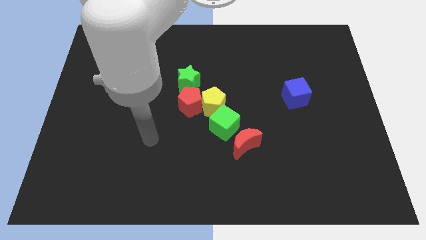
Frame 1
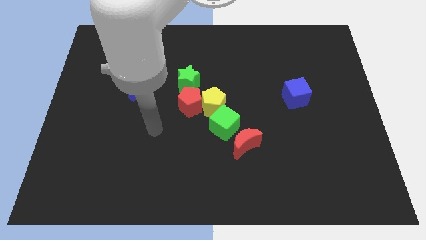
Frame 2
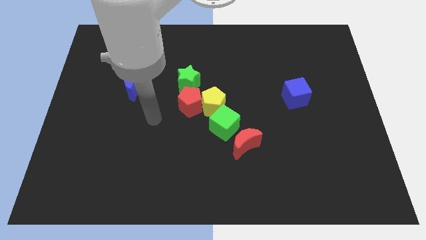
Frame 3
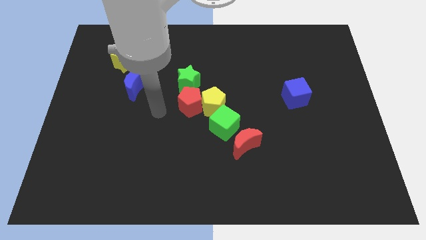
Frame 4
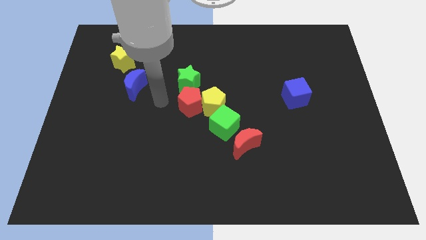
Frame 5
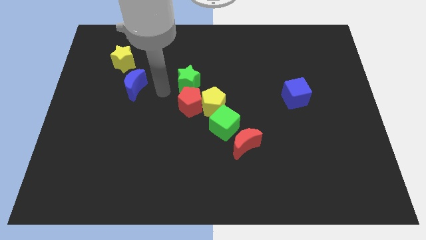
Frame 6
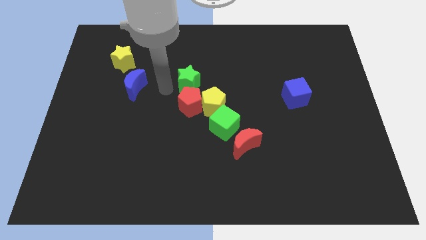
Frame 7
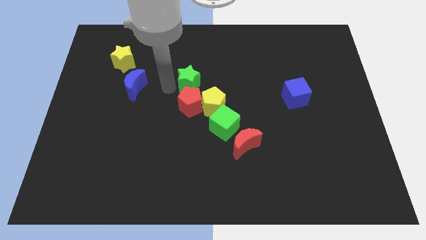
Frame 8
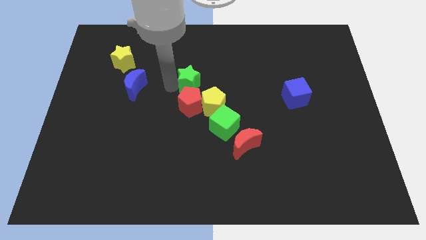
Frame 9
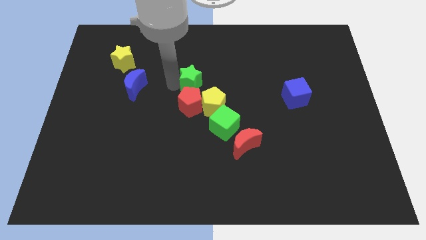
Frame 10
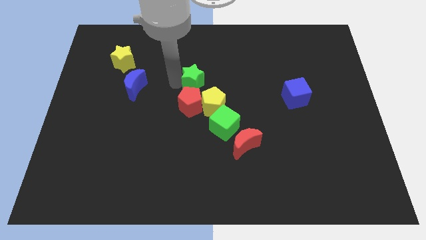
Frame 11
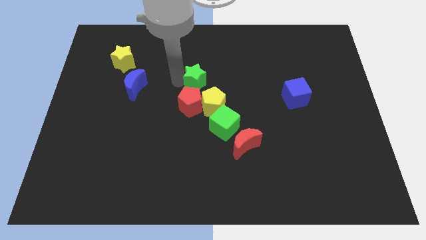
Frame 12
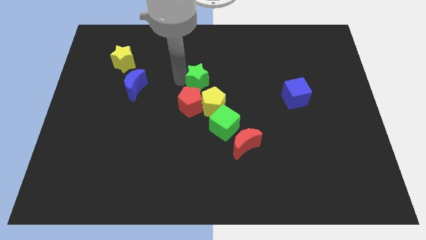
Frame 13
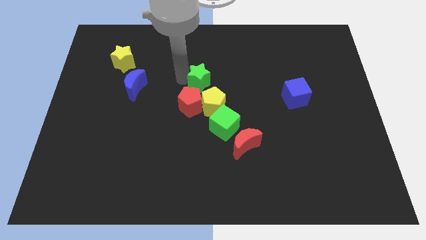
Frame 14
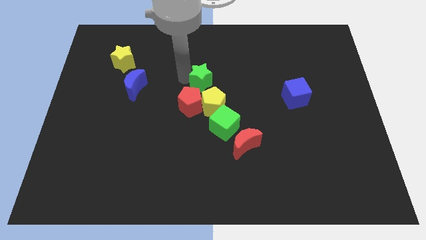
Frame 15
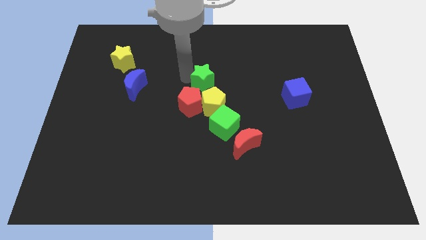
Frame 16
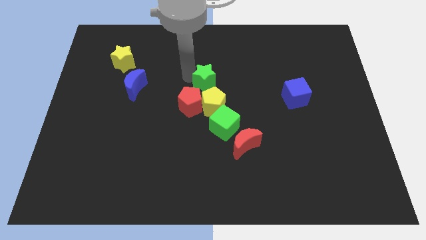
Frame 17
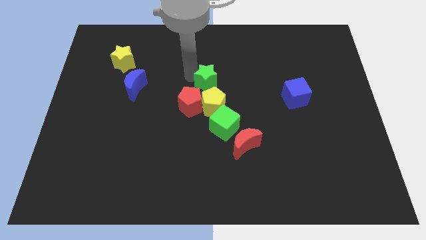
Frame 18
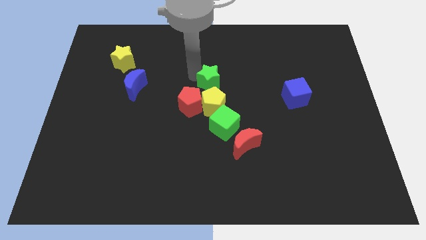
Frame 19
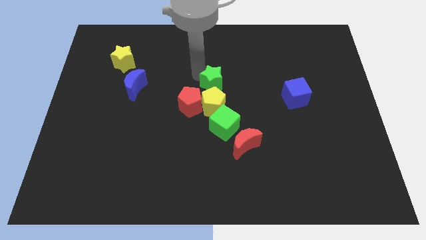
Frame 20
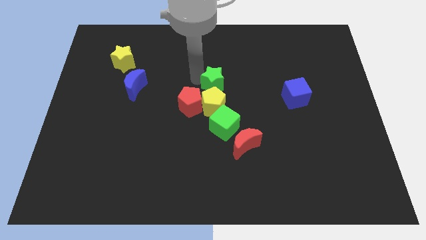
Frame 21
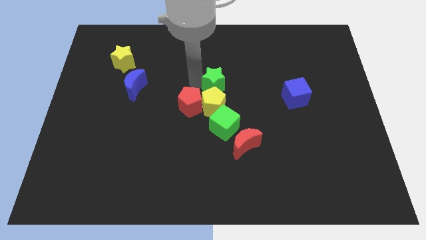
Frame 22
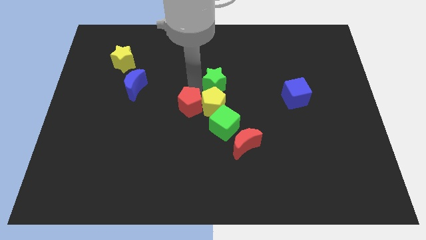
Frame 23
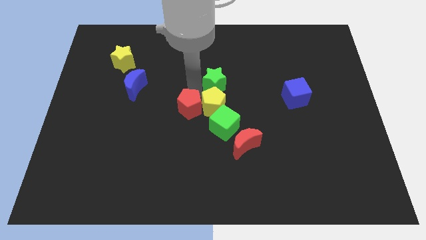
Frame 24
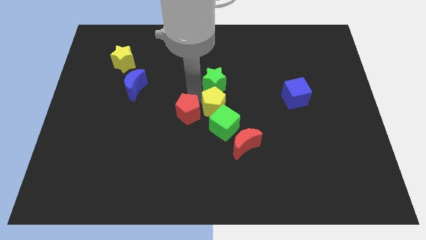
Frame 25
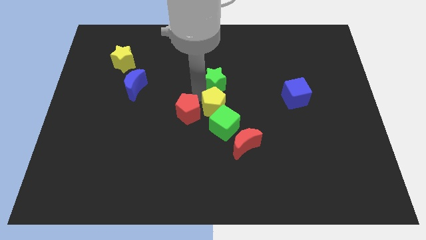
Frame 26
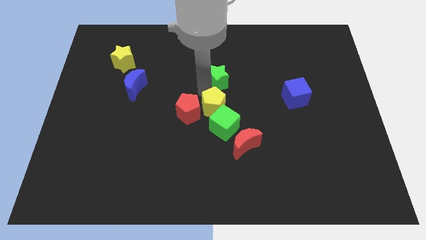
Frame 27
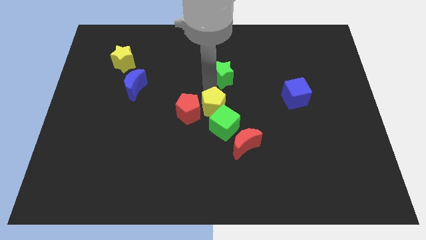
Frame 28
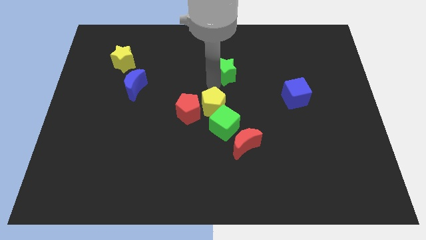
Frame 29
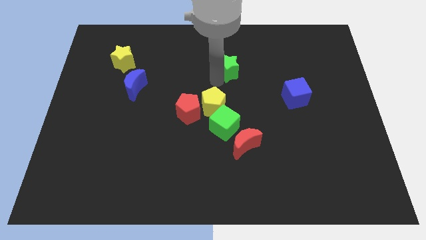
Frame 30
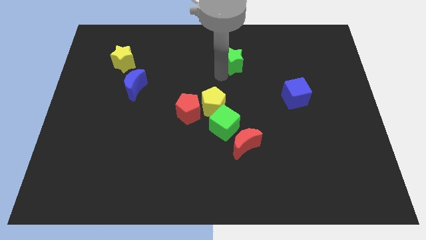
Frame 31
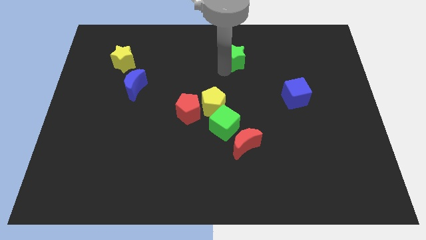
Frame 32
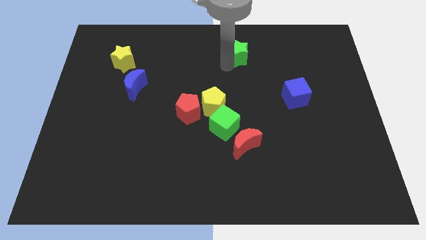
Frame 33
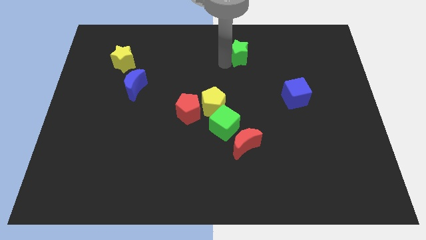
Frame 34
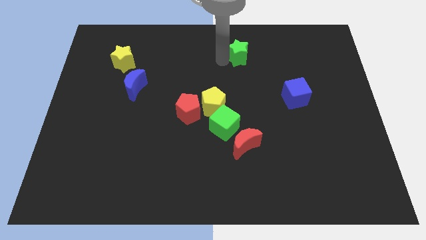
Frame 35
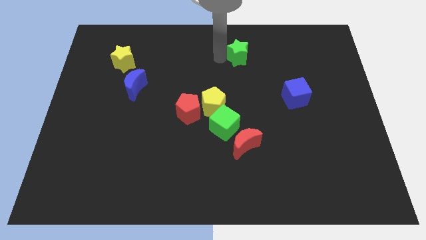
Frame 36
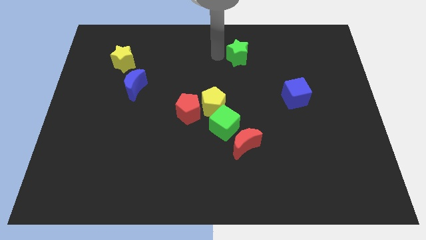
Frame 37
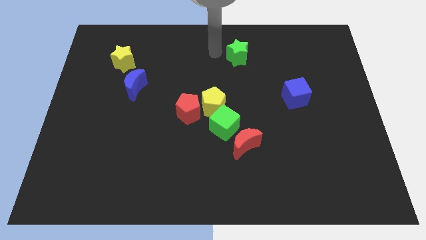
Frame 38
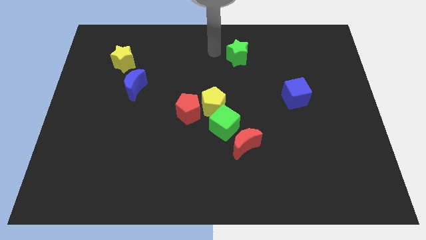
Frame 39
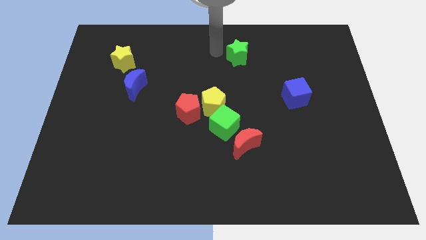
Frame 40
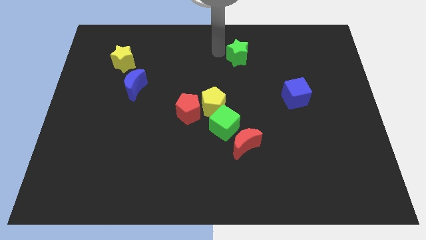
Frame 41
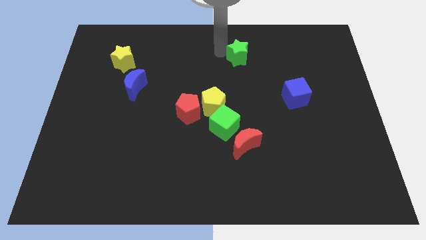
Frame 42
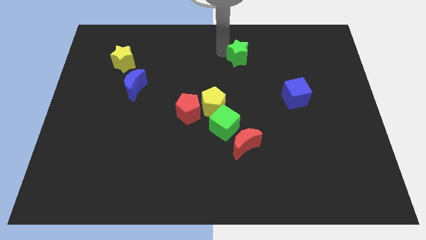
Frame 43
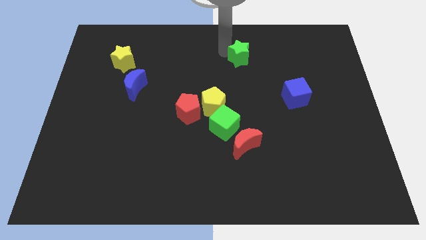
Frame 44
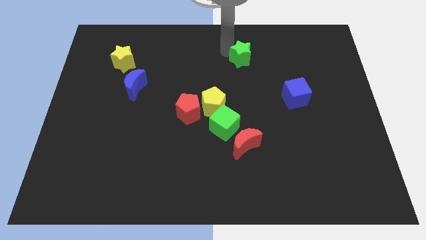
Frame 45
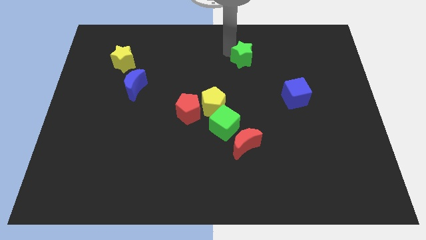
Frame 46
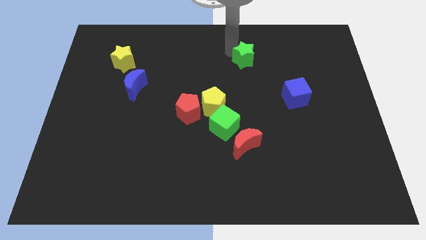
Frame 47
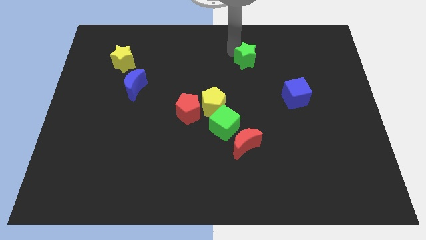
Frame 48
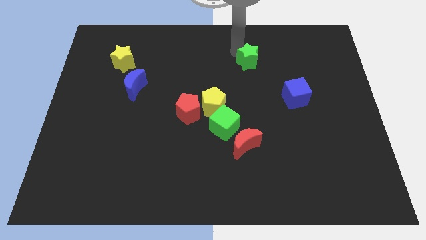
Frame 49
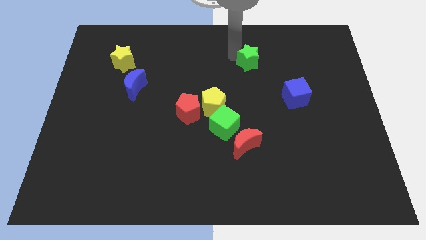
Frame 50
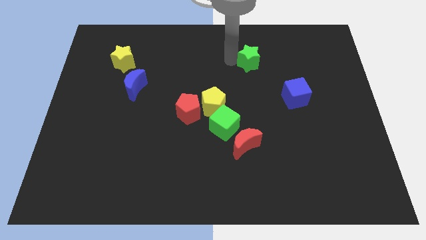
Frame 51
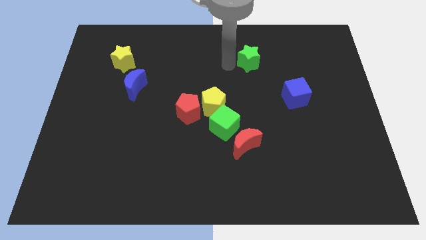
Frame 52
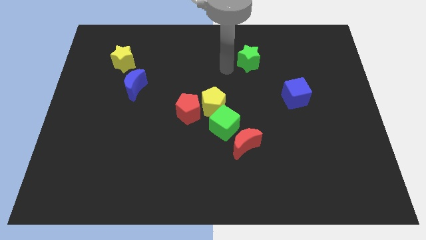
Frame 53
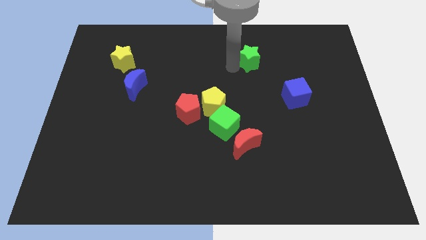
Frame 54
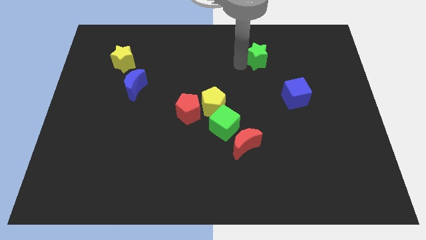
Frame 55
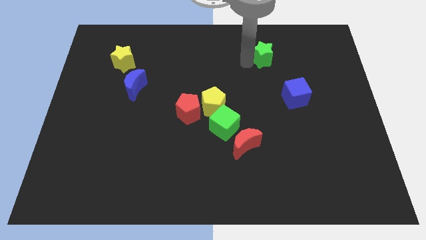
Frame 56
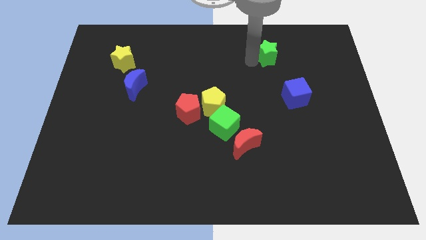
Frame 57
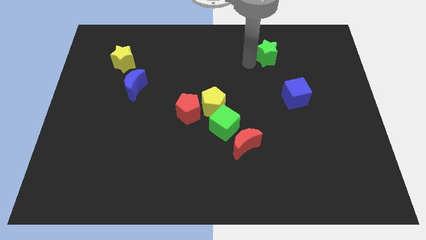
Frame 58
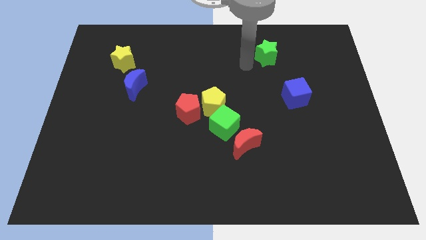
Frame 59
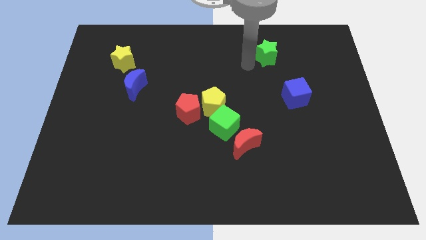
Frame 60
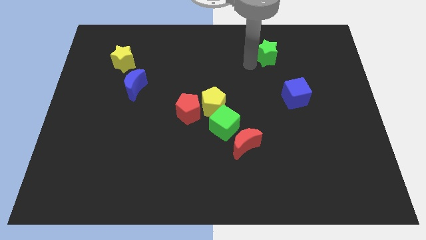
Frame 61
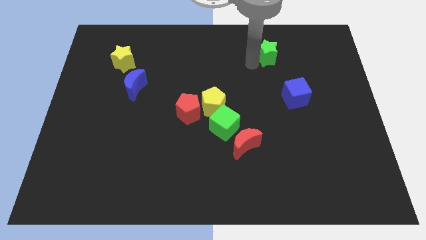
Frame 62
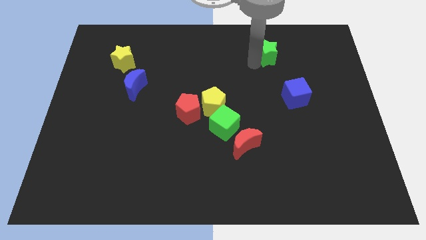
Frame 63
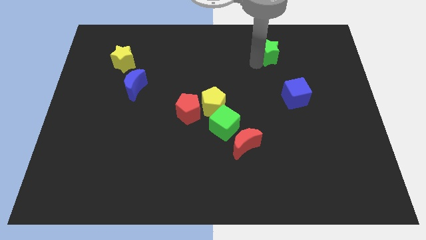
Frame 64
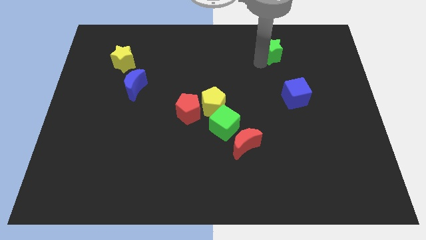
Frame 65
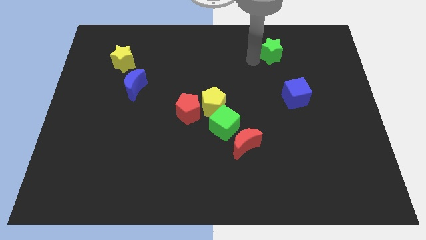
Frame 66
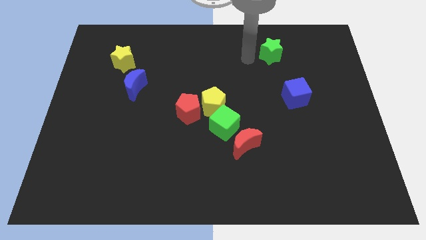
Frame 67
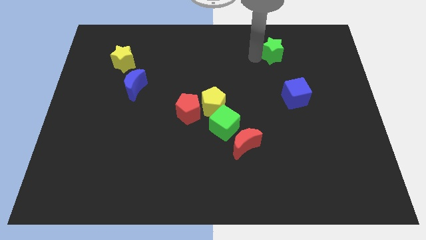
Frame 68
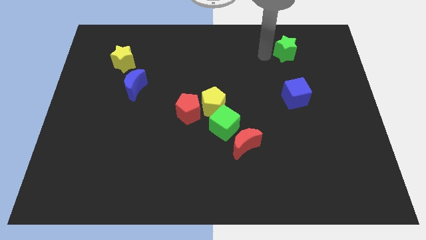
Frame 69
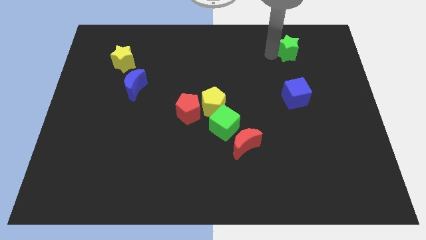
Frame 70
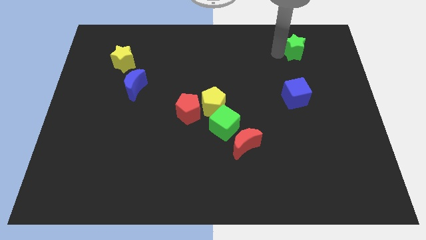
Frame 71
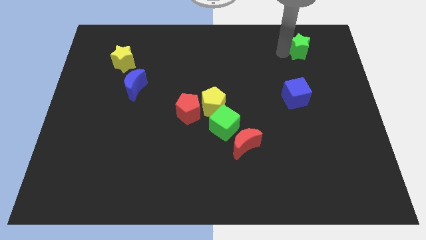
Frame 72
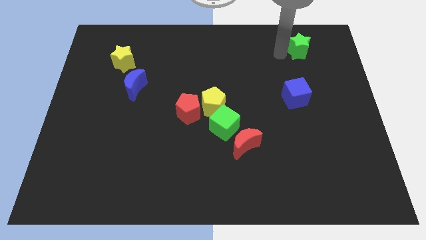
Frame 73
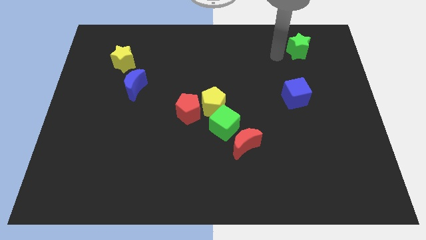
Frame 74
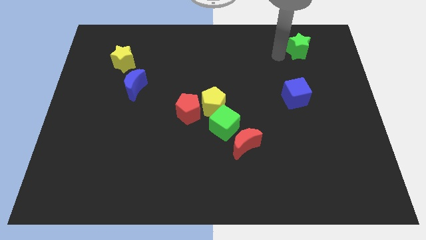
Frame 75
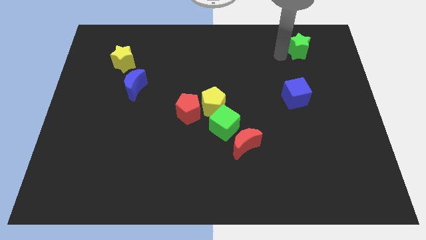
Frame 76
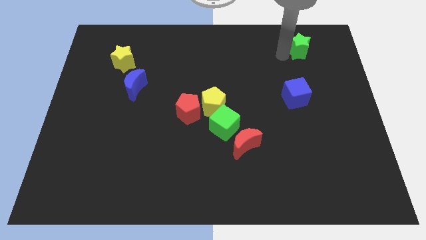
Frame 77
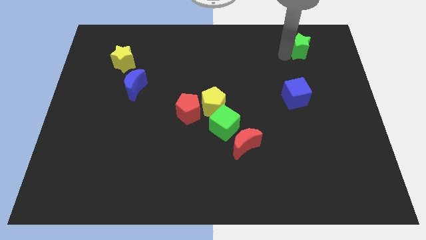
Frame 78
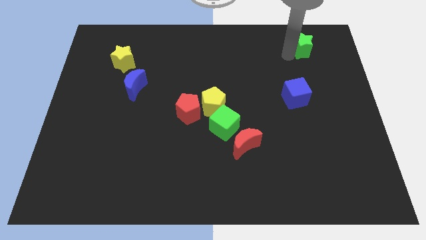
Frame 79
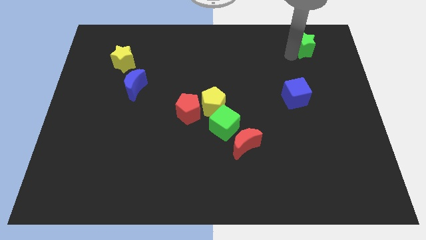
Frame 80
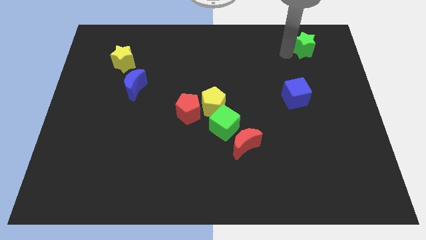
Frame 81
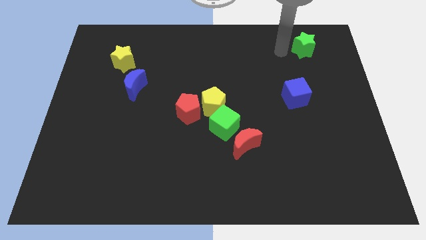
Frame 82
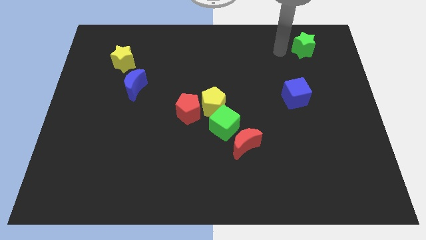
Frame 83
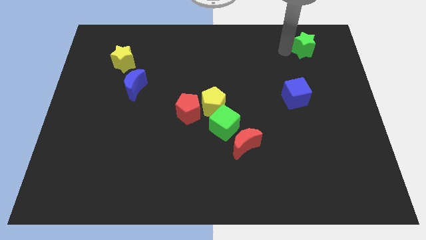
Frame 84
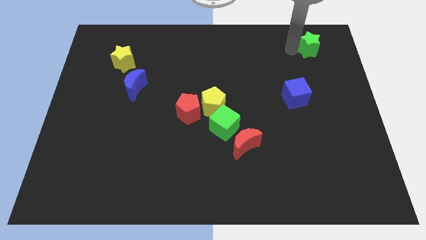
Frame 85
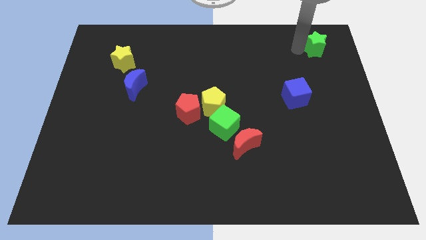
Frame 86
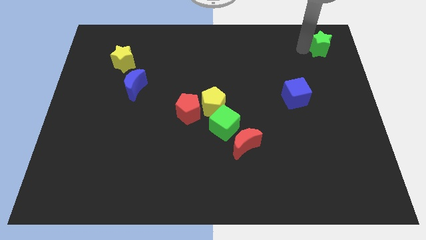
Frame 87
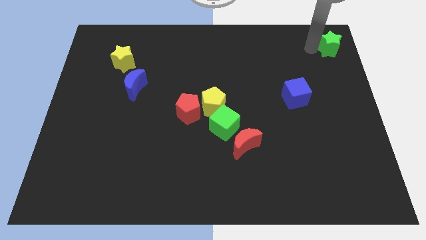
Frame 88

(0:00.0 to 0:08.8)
put the green star to the top right of the board
